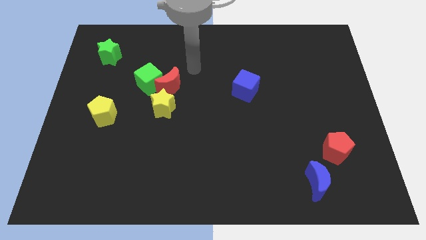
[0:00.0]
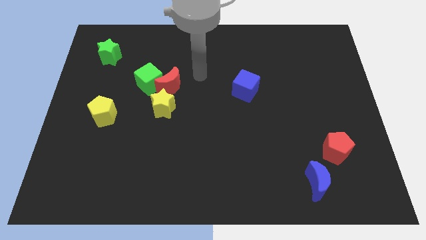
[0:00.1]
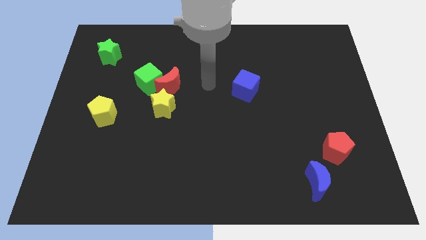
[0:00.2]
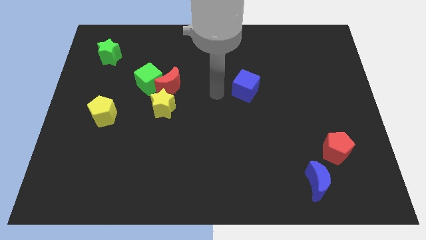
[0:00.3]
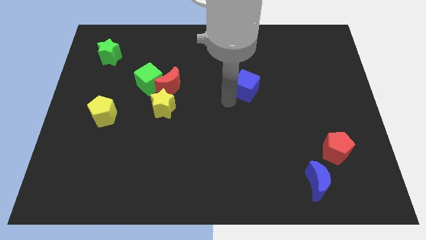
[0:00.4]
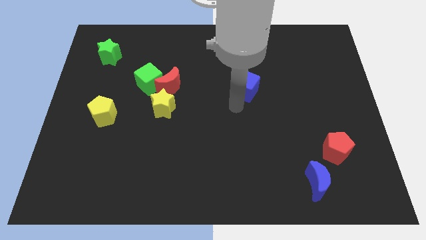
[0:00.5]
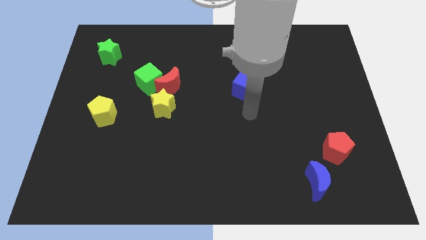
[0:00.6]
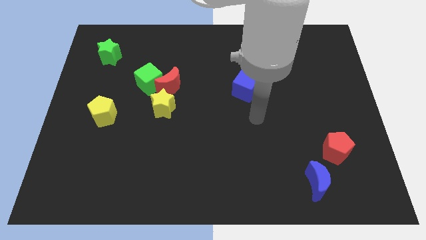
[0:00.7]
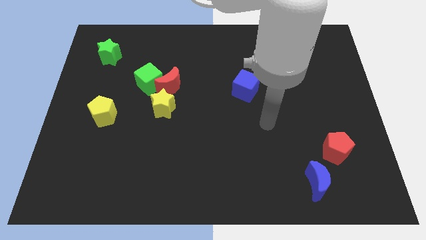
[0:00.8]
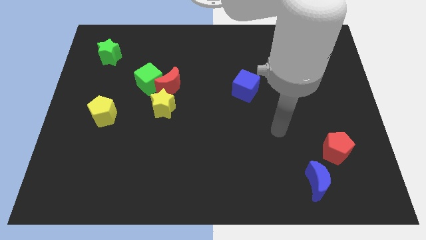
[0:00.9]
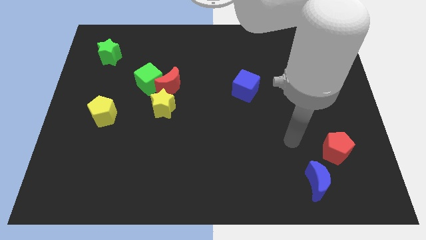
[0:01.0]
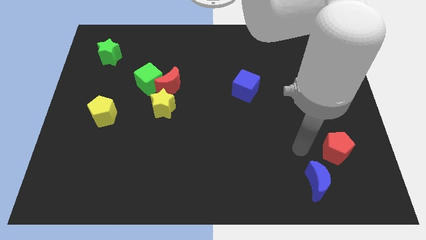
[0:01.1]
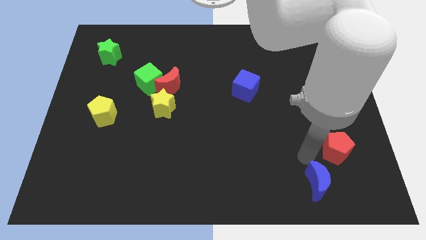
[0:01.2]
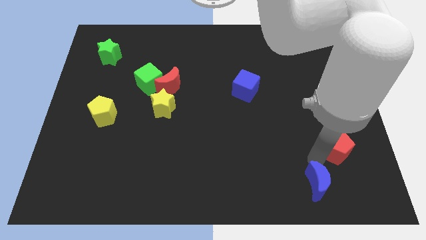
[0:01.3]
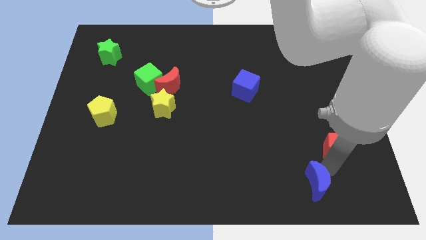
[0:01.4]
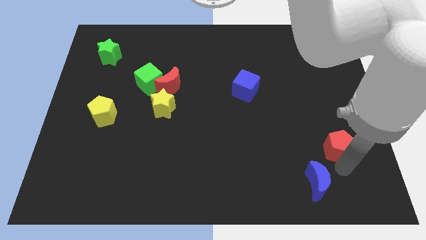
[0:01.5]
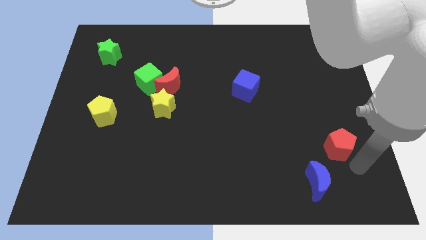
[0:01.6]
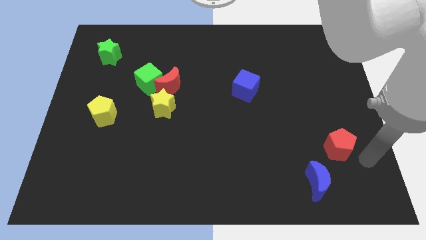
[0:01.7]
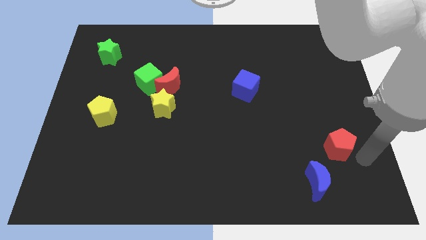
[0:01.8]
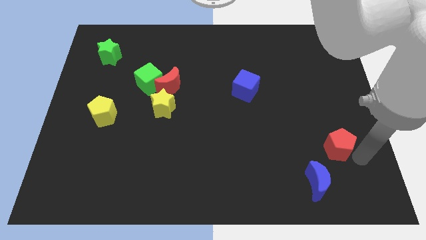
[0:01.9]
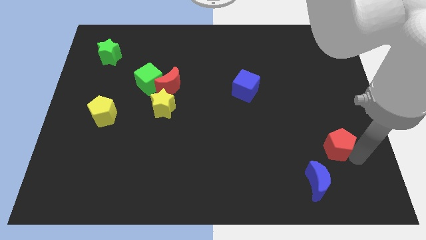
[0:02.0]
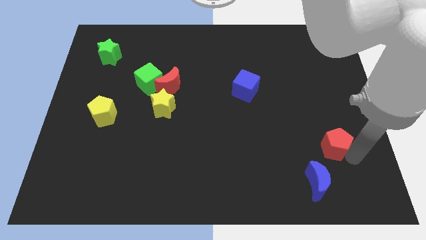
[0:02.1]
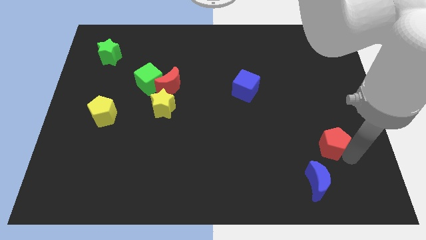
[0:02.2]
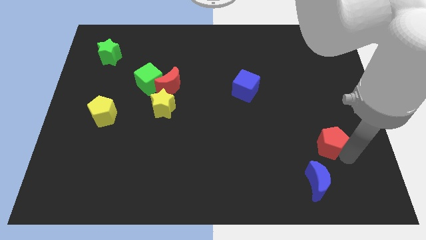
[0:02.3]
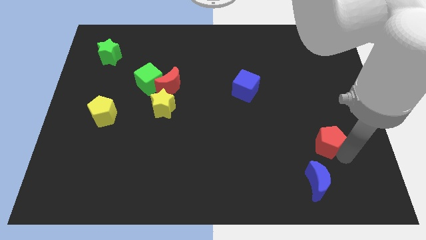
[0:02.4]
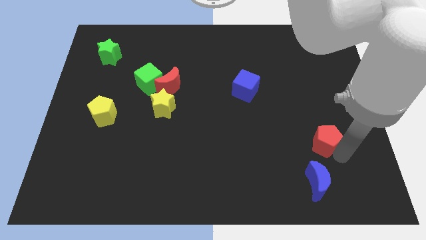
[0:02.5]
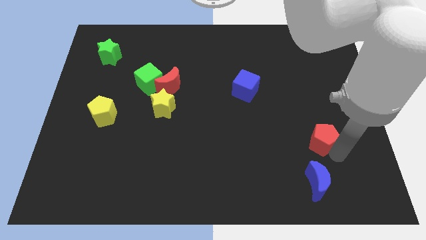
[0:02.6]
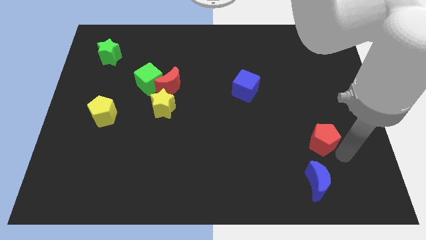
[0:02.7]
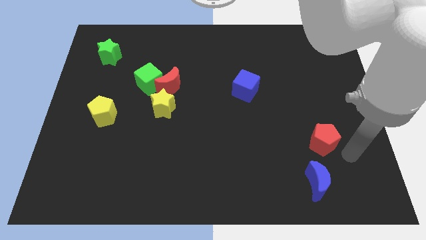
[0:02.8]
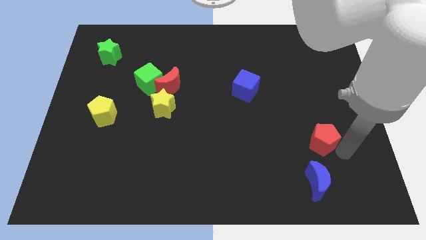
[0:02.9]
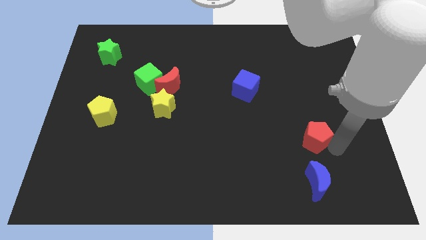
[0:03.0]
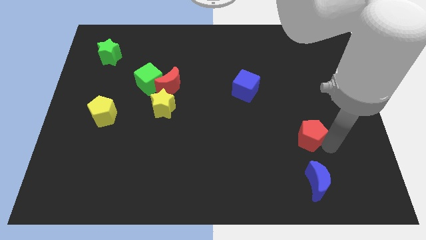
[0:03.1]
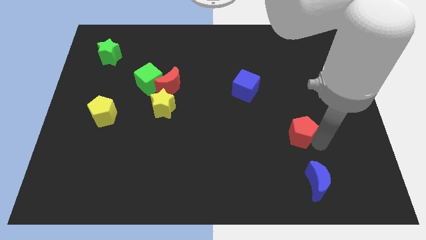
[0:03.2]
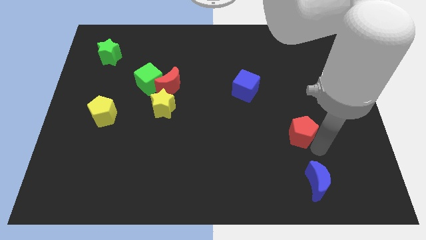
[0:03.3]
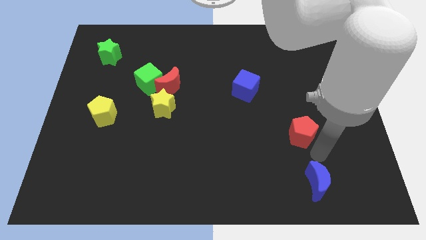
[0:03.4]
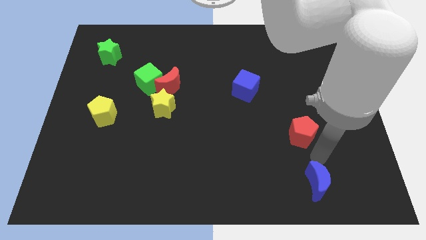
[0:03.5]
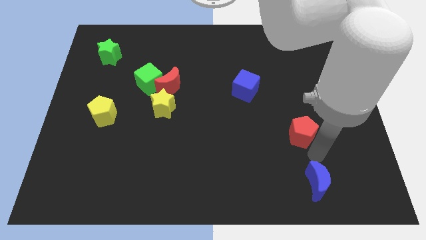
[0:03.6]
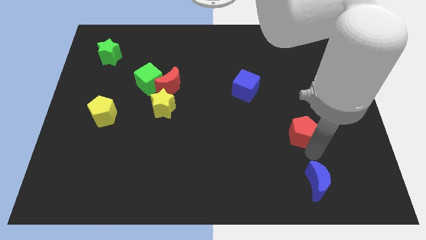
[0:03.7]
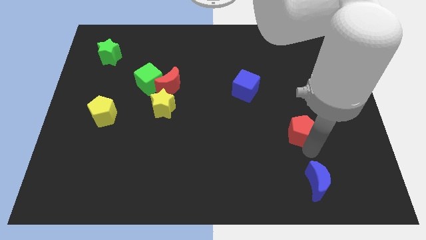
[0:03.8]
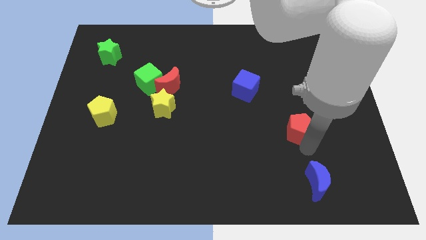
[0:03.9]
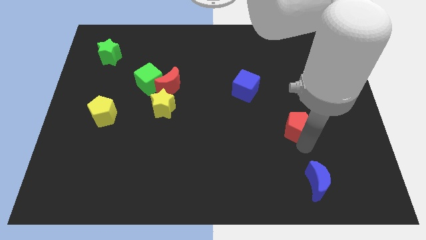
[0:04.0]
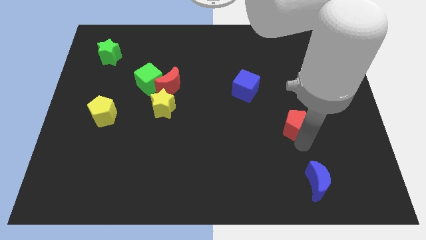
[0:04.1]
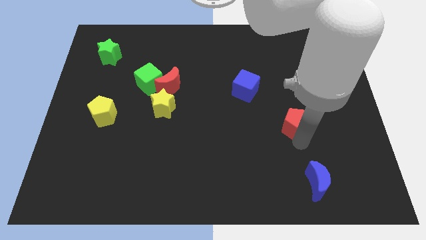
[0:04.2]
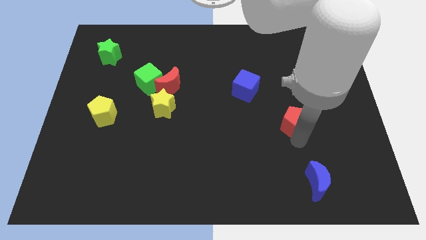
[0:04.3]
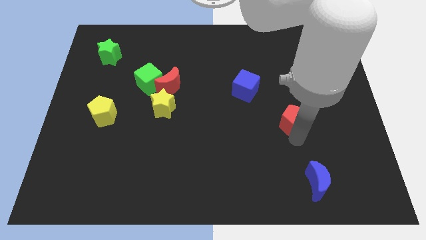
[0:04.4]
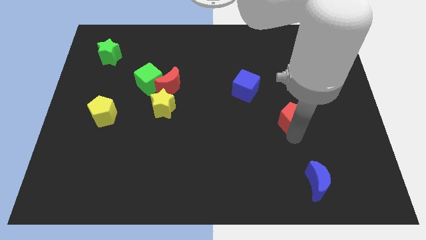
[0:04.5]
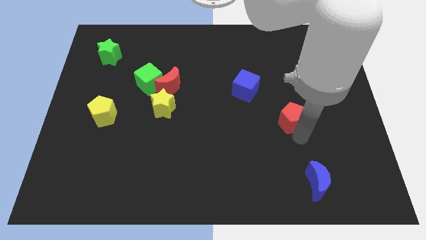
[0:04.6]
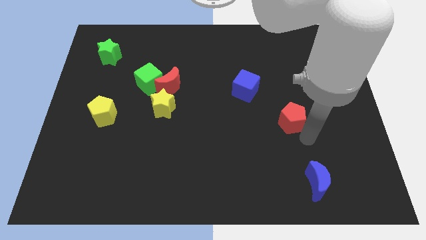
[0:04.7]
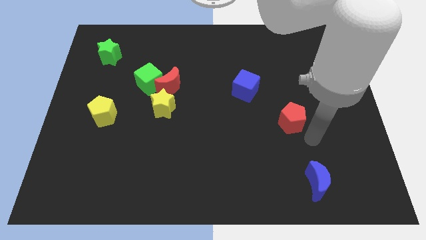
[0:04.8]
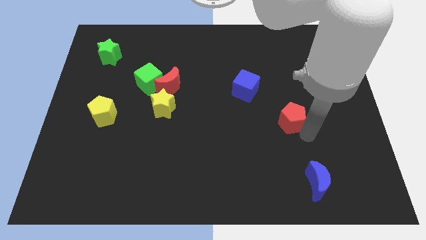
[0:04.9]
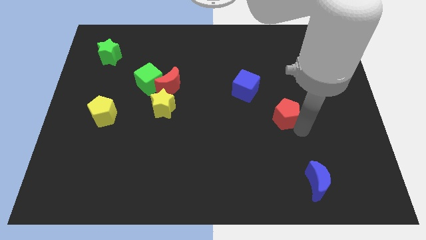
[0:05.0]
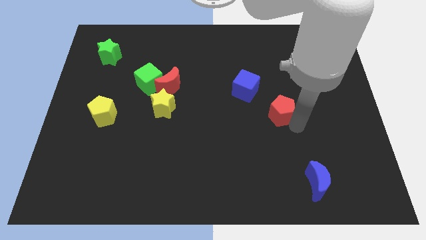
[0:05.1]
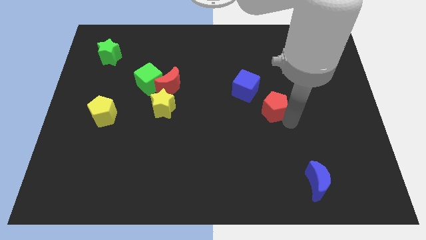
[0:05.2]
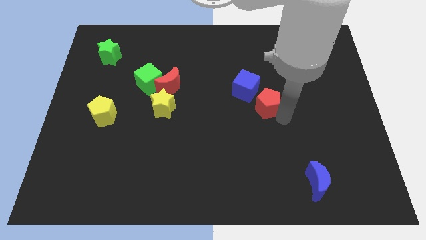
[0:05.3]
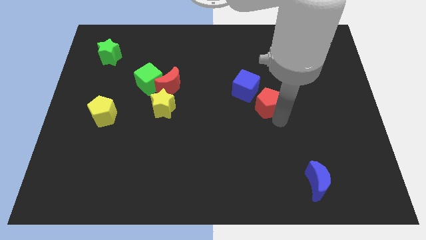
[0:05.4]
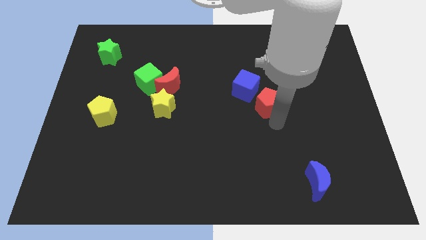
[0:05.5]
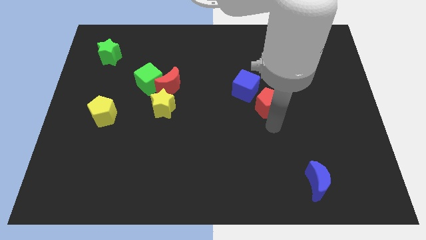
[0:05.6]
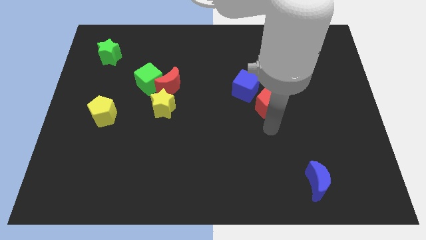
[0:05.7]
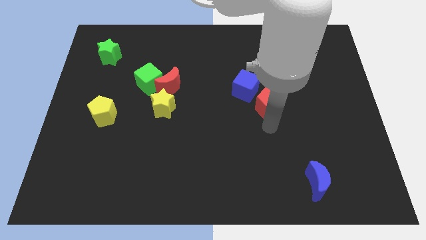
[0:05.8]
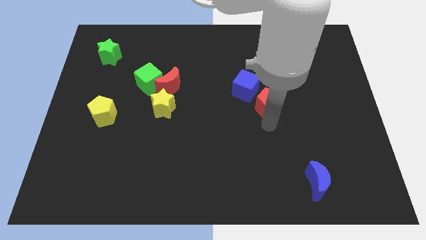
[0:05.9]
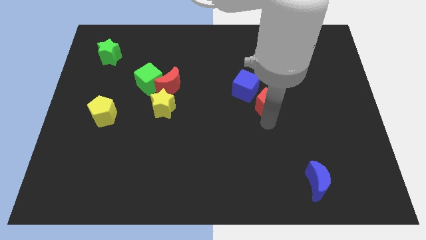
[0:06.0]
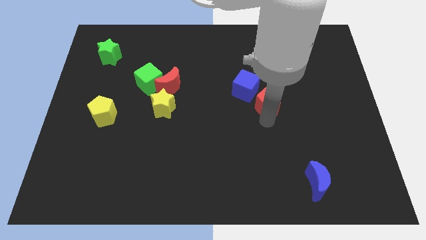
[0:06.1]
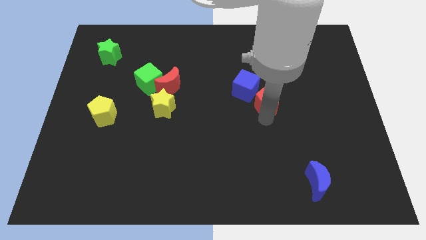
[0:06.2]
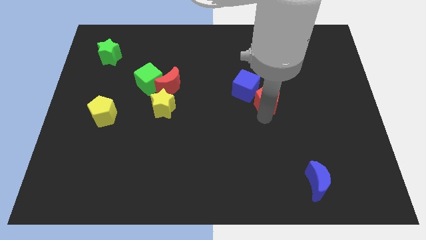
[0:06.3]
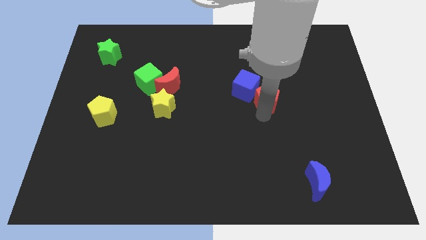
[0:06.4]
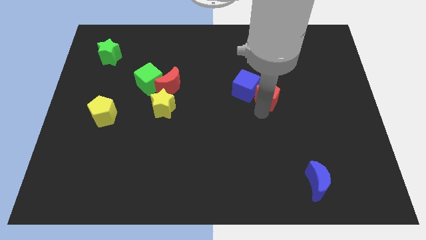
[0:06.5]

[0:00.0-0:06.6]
push the red pentagon upwards and left

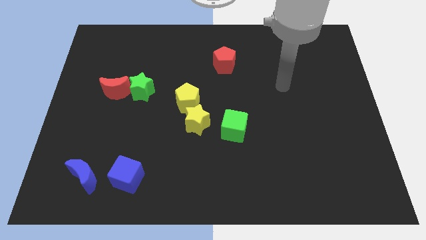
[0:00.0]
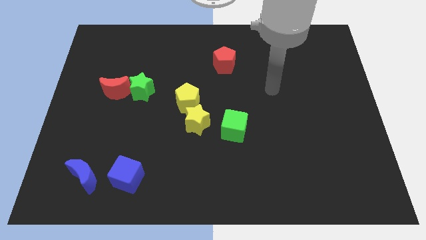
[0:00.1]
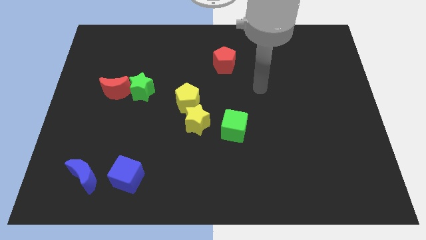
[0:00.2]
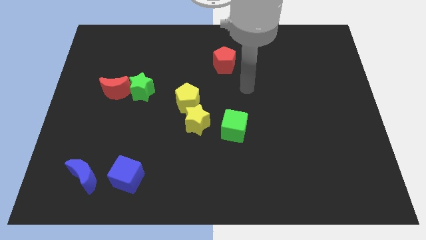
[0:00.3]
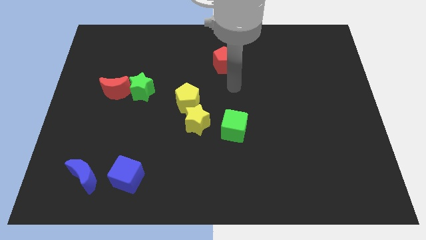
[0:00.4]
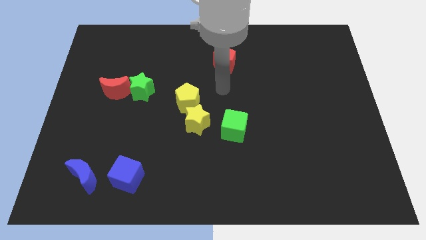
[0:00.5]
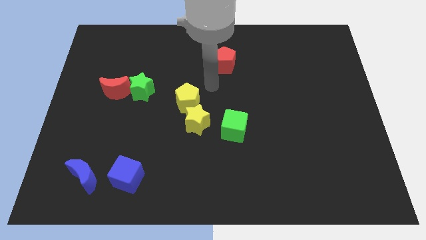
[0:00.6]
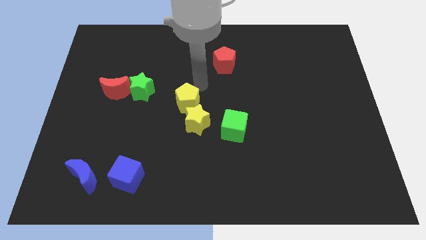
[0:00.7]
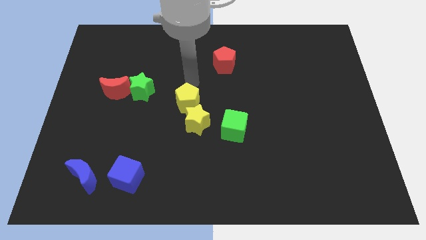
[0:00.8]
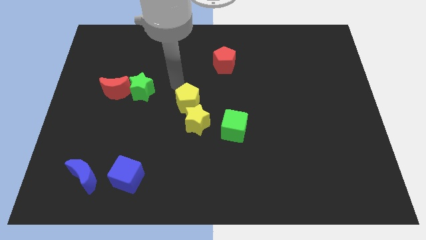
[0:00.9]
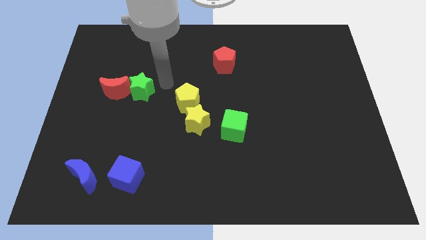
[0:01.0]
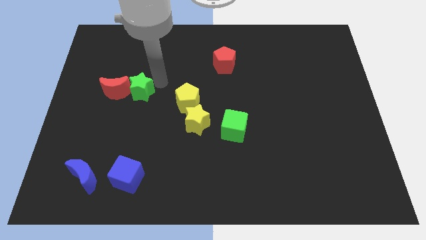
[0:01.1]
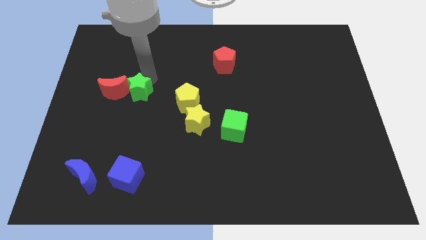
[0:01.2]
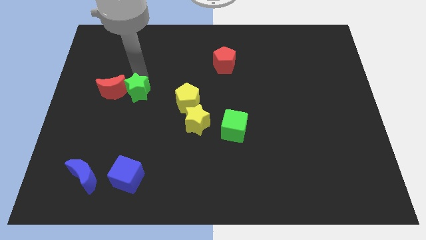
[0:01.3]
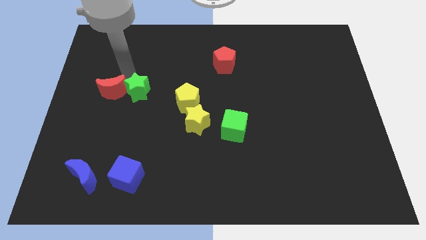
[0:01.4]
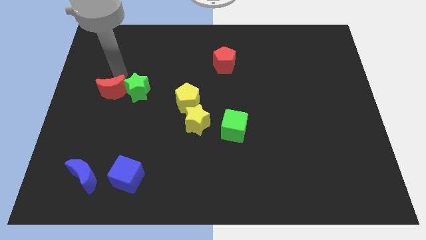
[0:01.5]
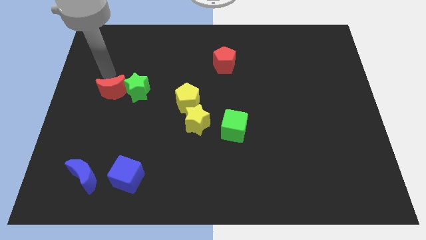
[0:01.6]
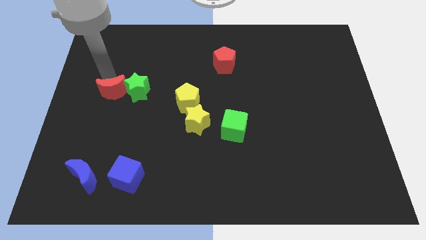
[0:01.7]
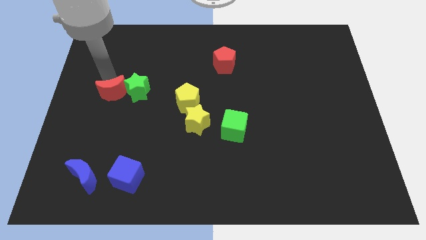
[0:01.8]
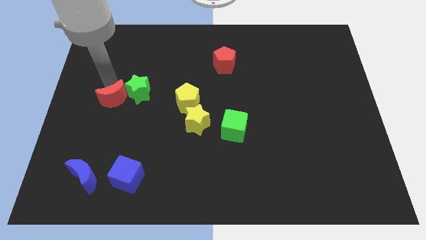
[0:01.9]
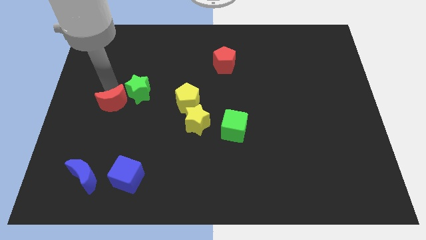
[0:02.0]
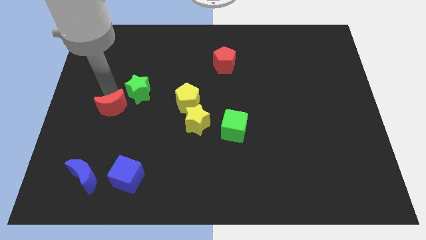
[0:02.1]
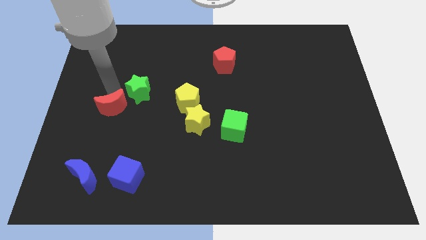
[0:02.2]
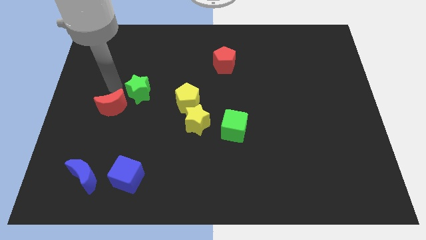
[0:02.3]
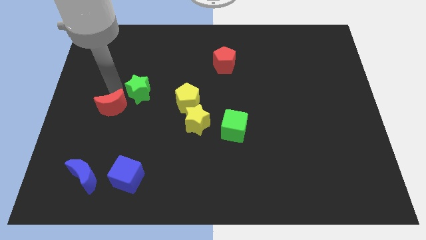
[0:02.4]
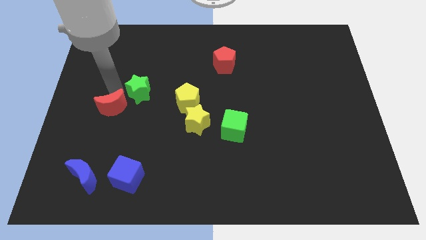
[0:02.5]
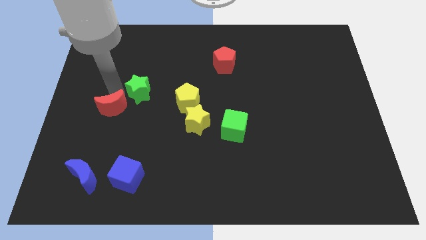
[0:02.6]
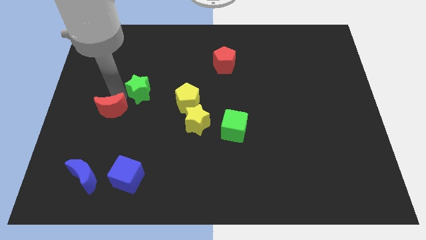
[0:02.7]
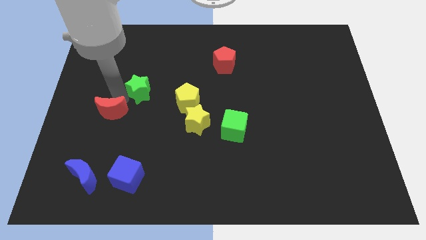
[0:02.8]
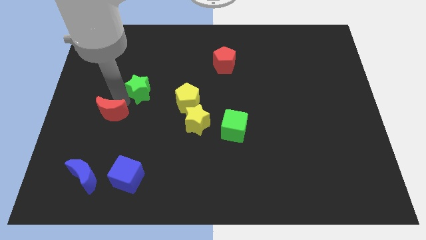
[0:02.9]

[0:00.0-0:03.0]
push the red moon somewhat down
